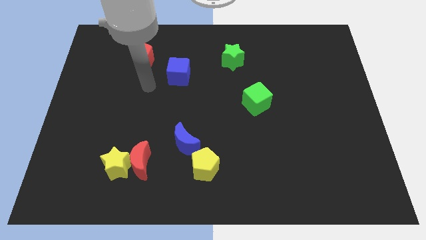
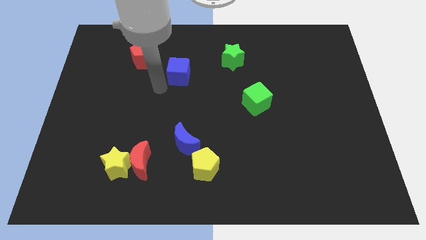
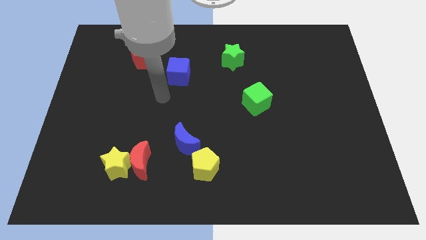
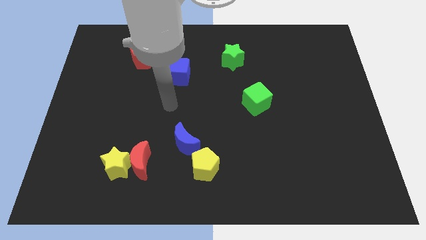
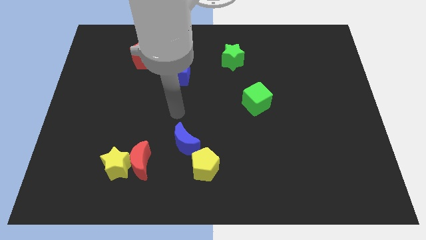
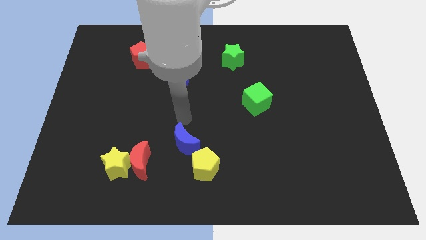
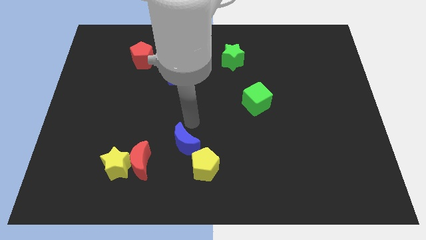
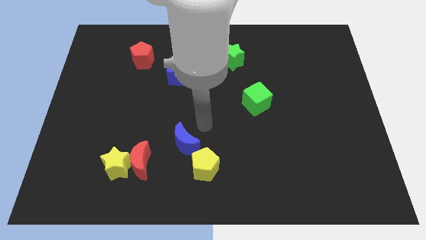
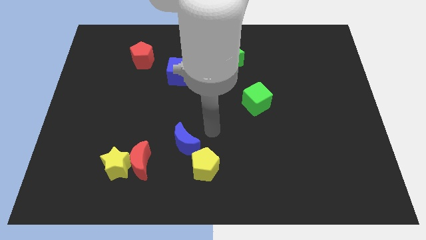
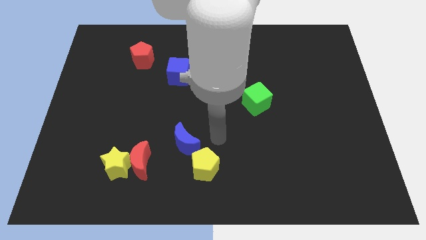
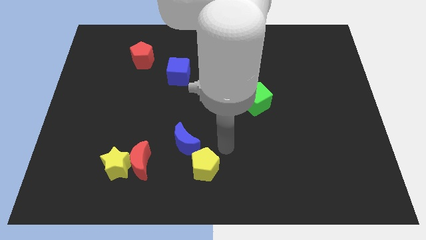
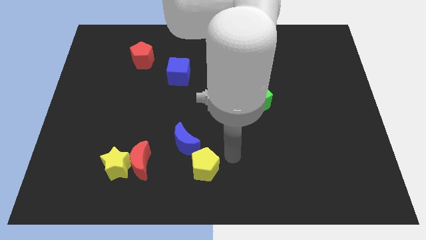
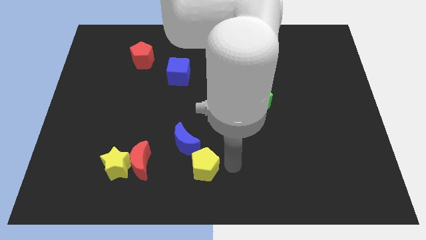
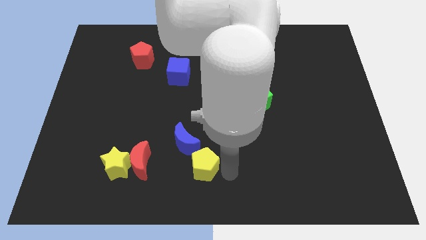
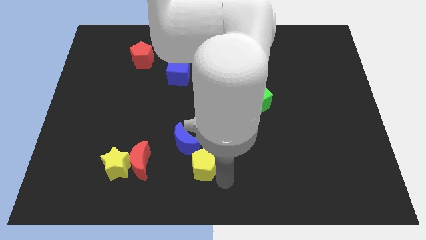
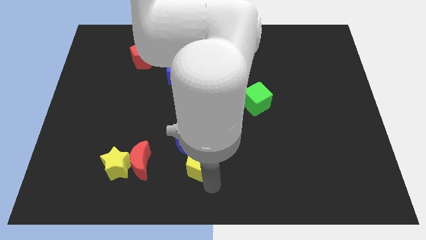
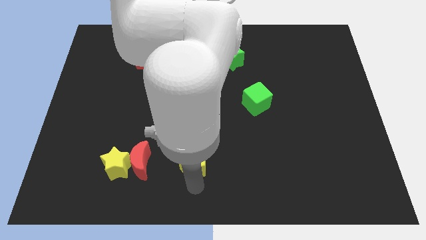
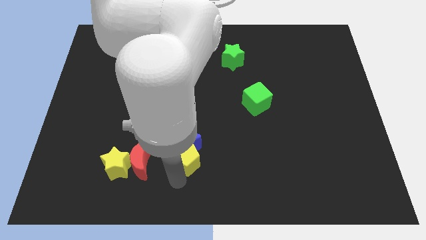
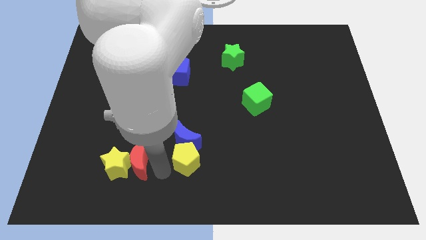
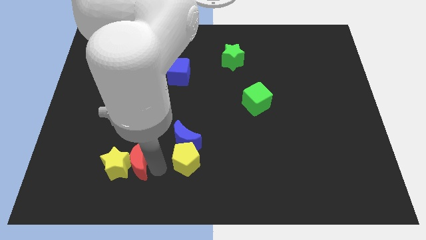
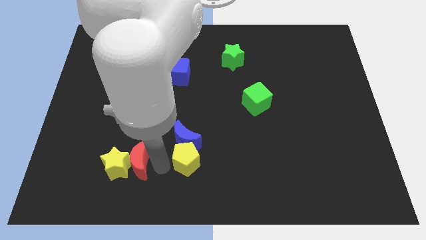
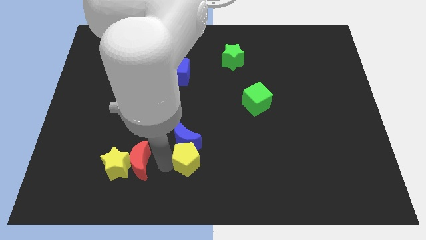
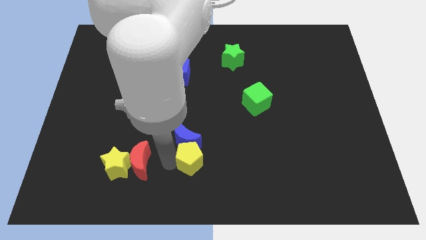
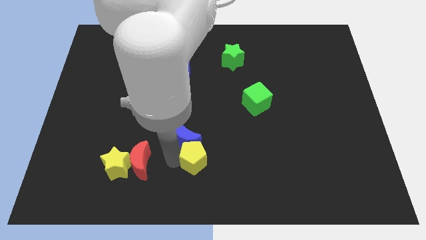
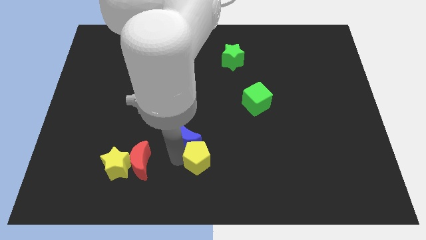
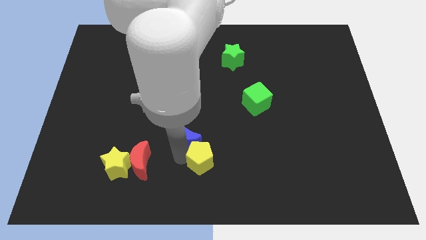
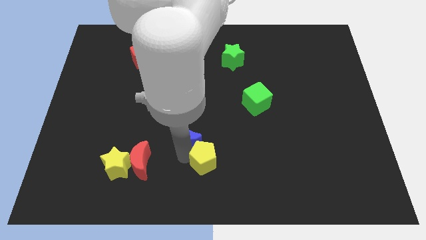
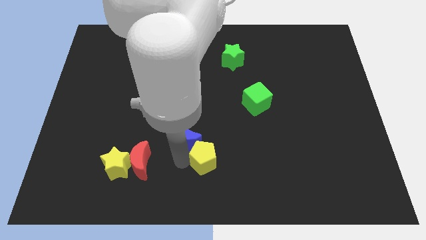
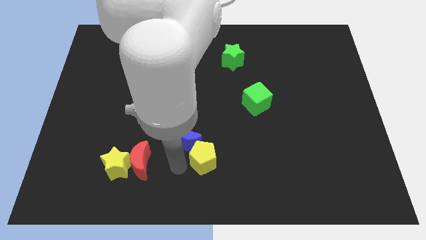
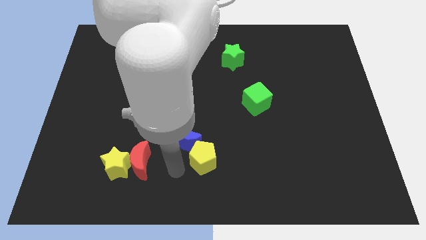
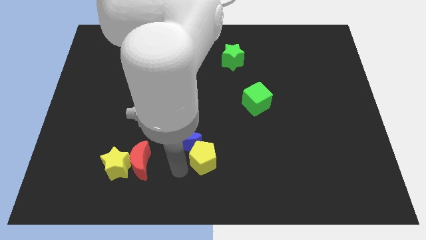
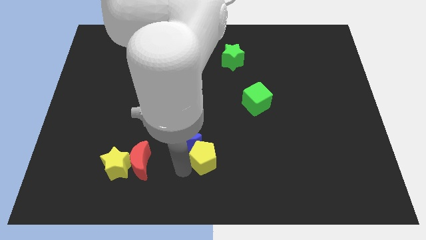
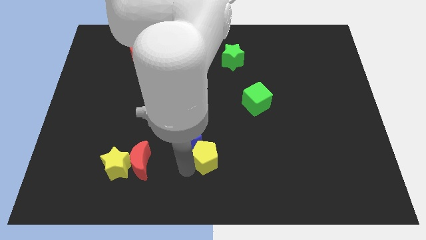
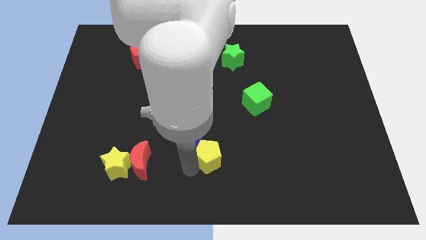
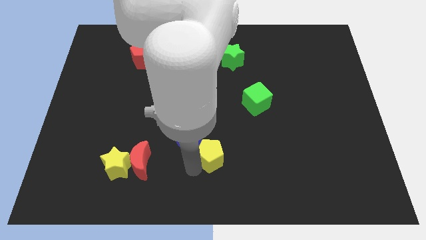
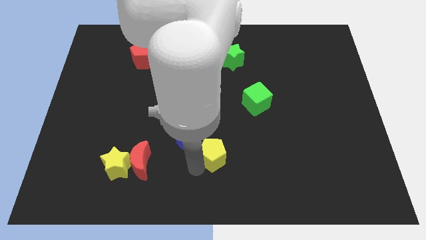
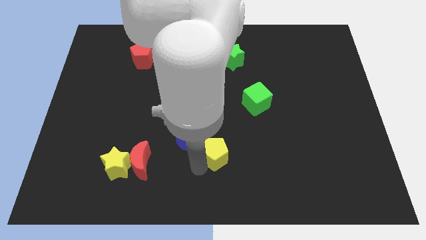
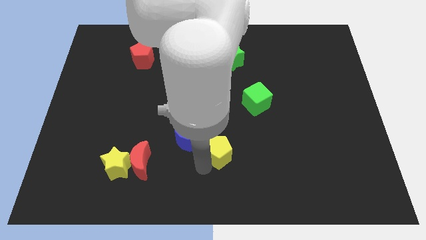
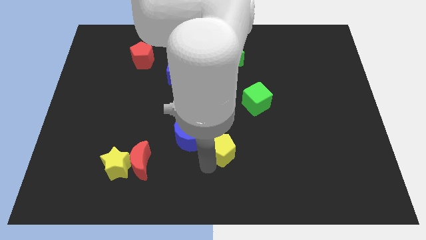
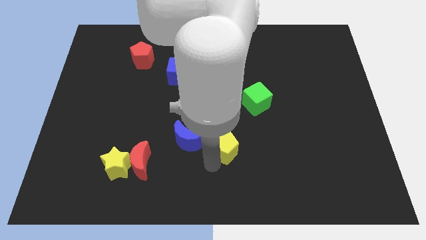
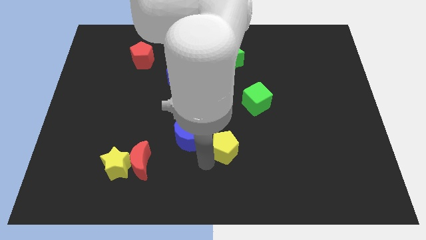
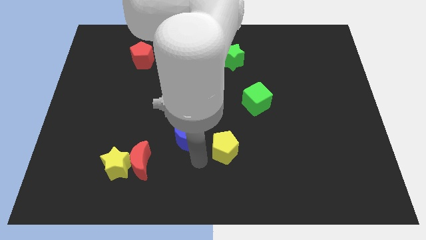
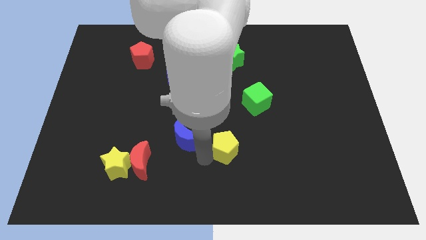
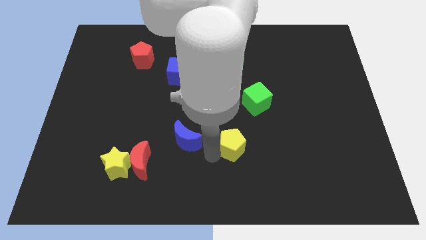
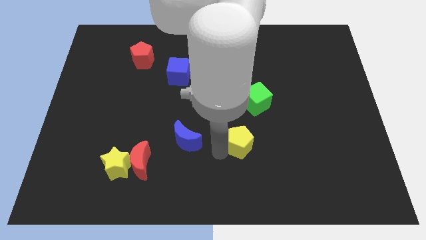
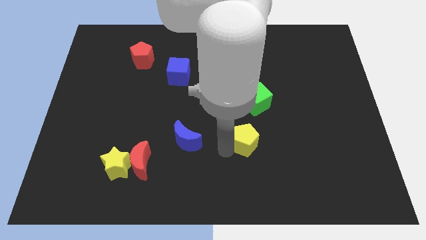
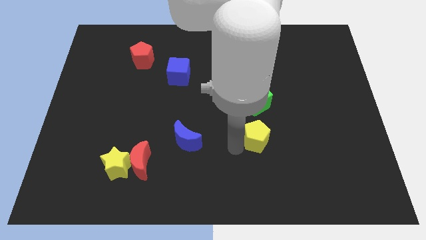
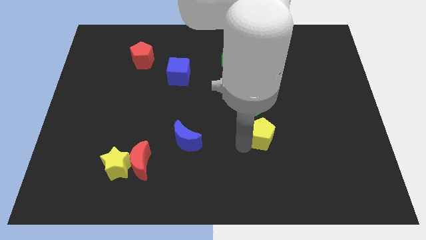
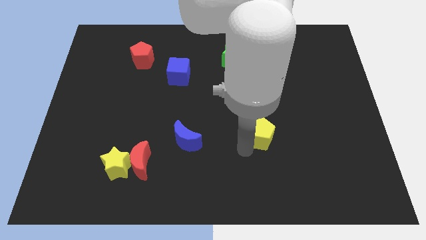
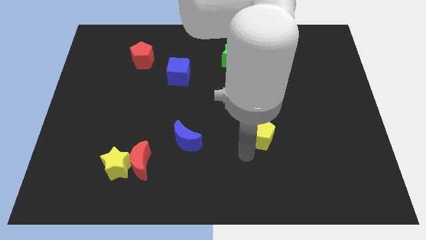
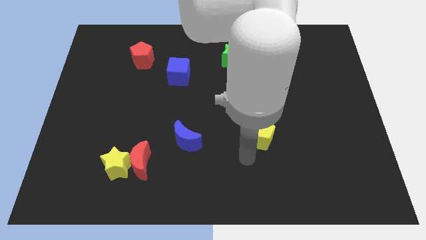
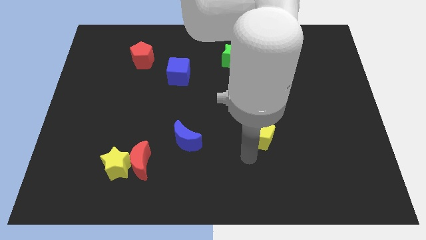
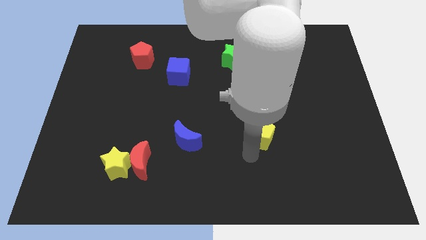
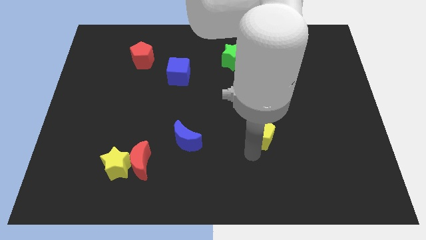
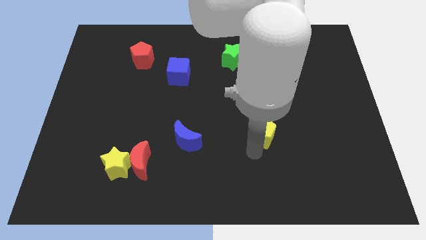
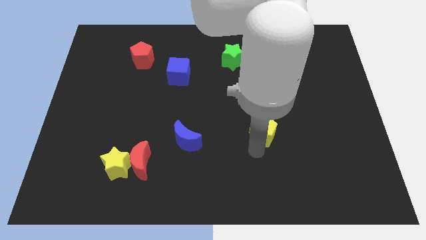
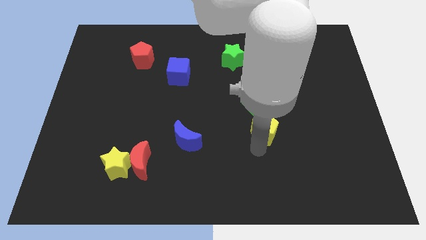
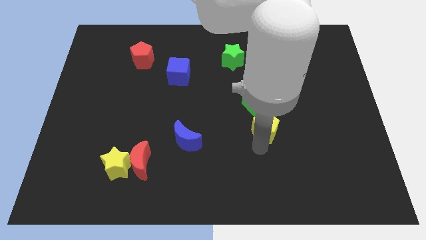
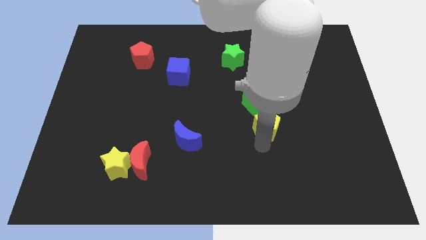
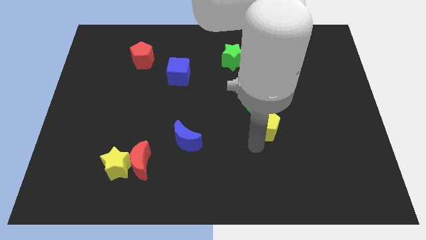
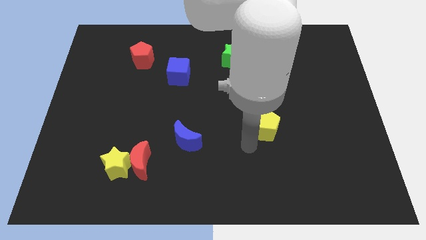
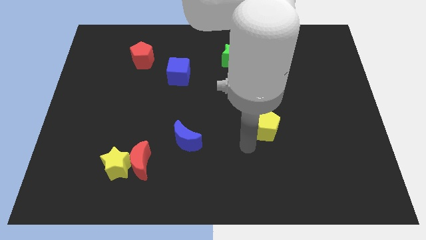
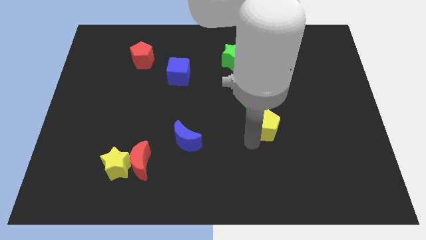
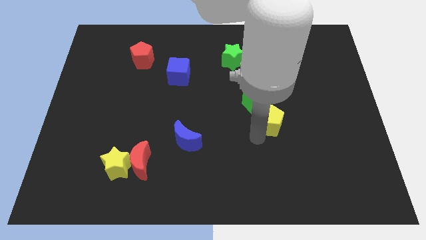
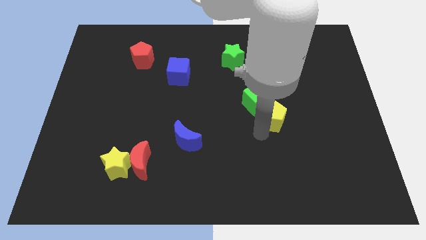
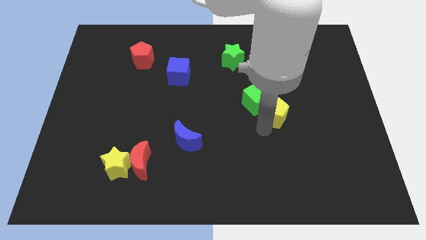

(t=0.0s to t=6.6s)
push the yellow pentagon to the right side of the green cube
